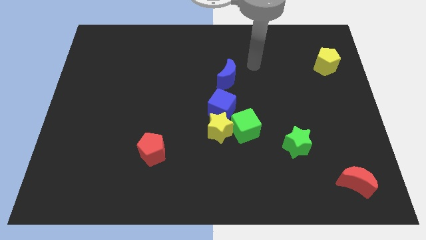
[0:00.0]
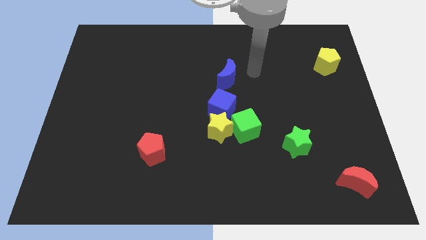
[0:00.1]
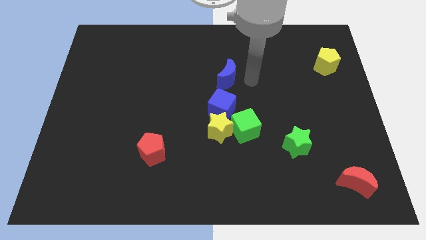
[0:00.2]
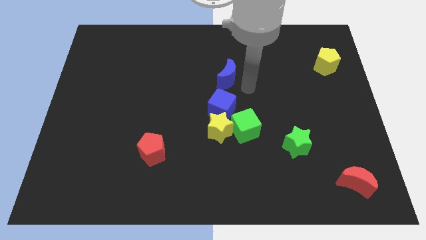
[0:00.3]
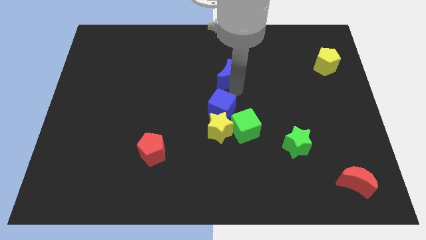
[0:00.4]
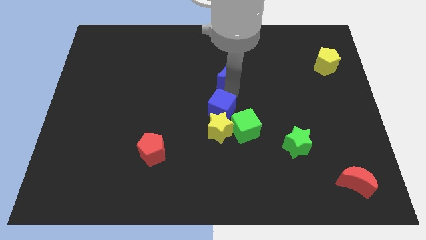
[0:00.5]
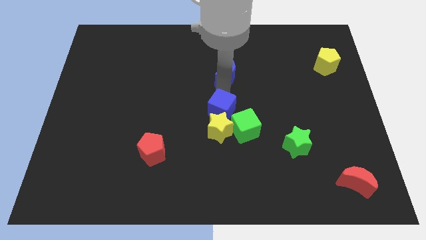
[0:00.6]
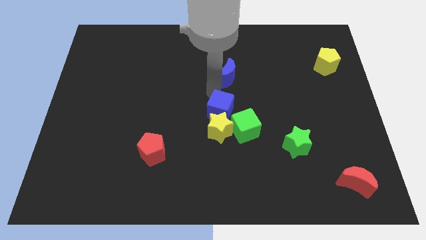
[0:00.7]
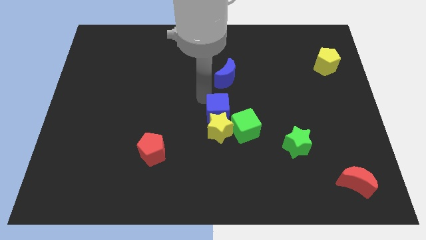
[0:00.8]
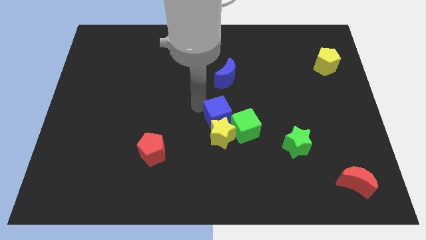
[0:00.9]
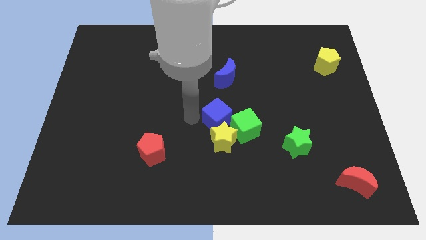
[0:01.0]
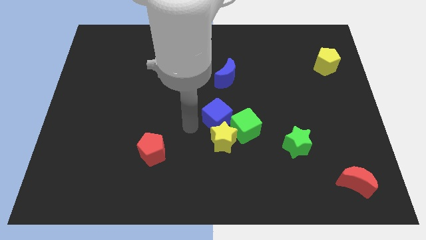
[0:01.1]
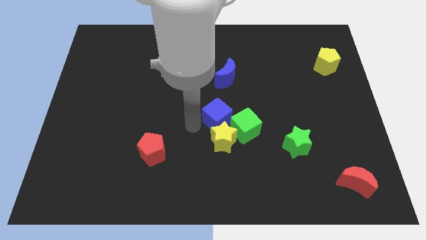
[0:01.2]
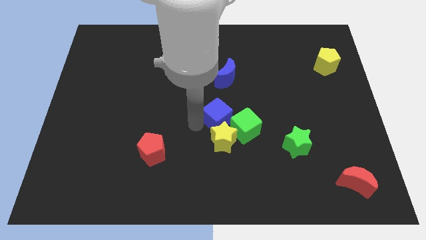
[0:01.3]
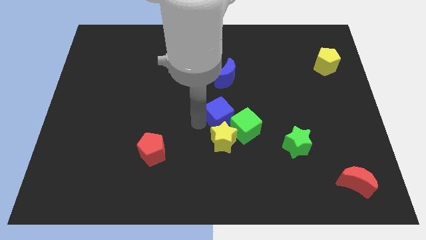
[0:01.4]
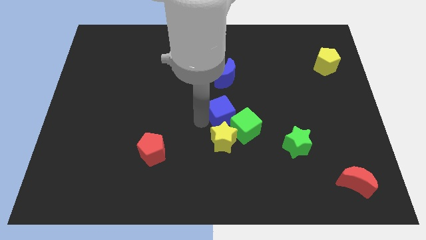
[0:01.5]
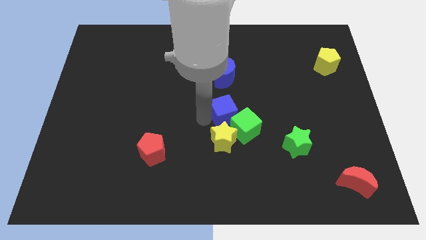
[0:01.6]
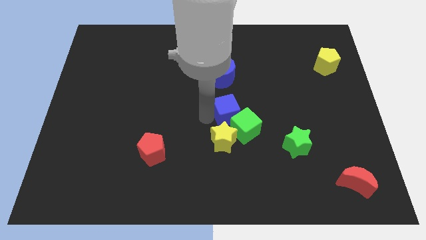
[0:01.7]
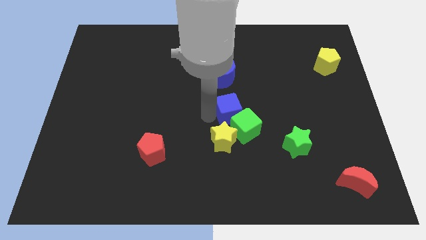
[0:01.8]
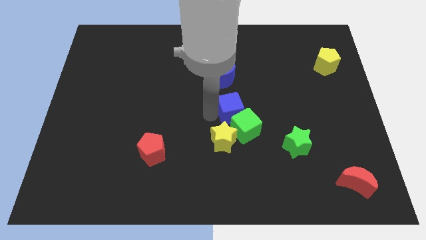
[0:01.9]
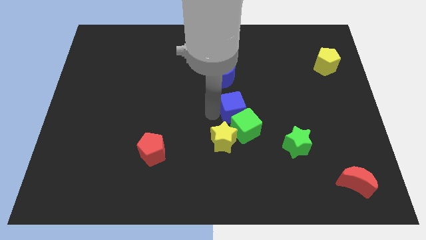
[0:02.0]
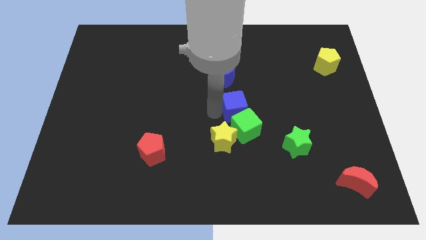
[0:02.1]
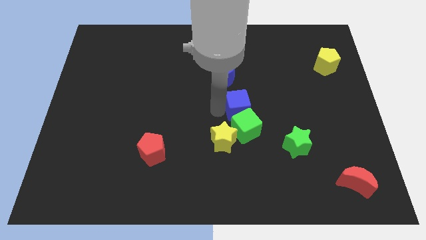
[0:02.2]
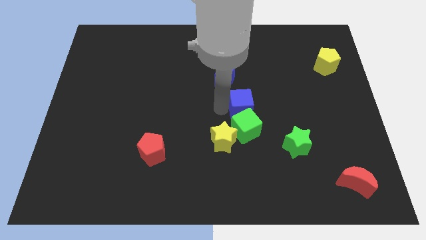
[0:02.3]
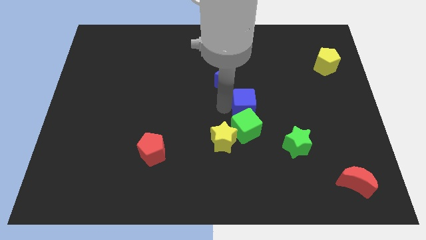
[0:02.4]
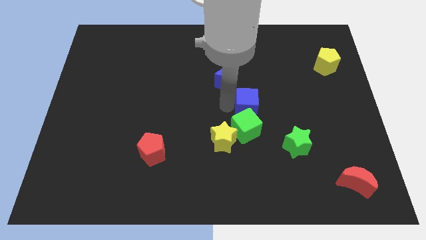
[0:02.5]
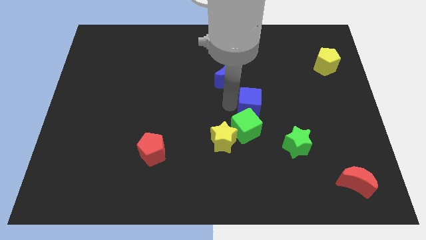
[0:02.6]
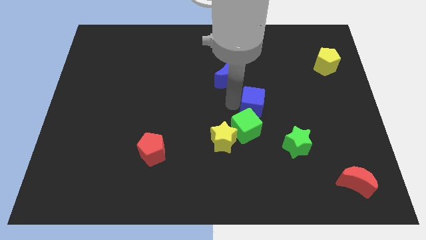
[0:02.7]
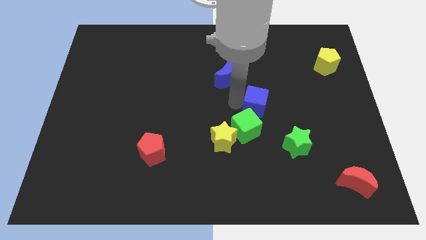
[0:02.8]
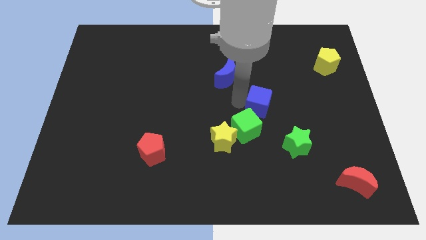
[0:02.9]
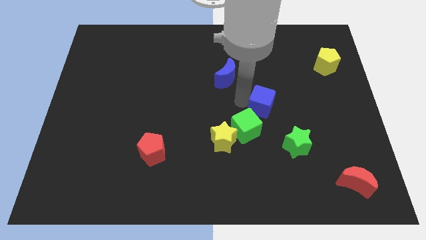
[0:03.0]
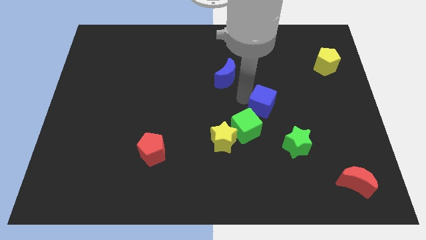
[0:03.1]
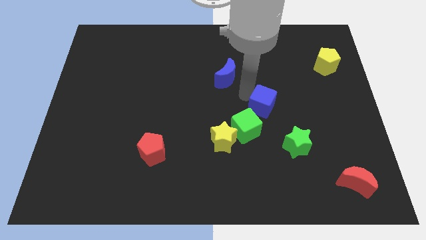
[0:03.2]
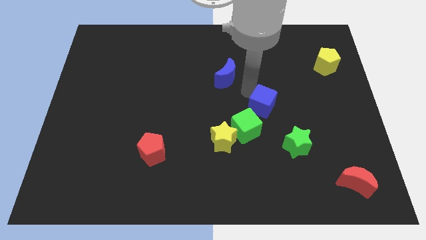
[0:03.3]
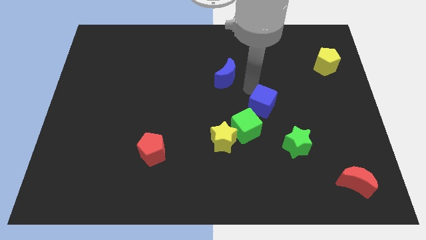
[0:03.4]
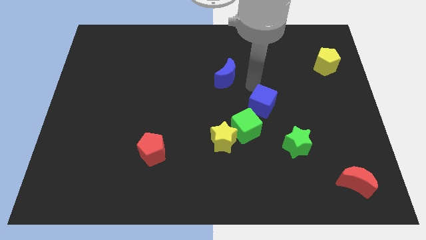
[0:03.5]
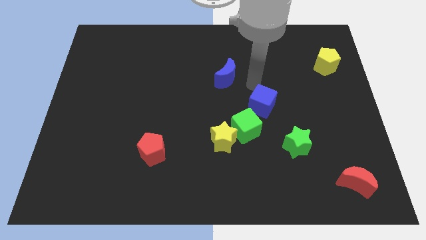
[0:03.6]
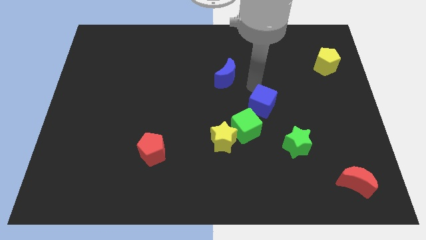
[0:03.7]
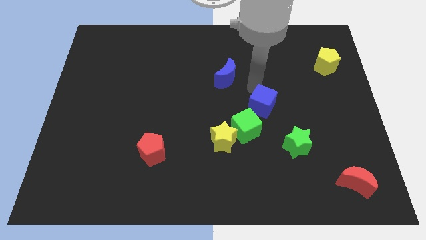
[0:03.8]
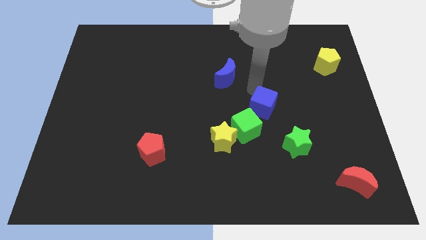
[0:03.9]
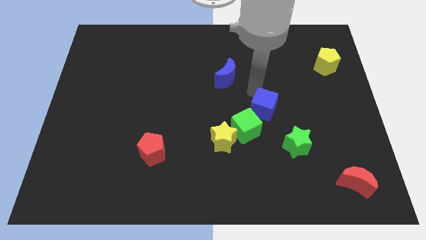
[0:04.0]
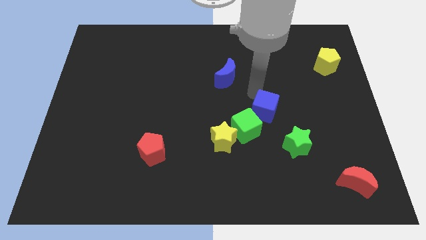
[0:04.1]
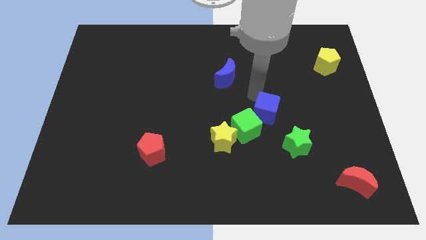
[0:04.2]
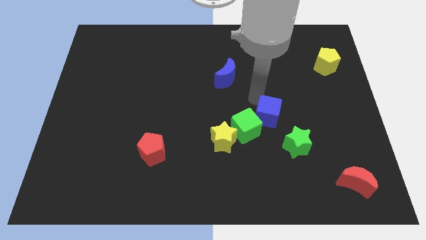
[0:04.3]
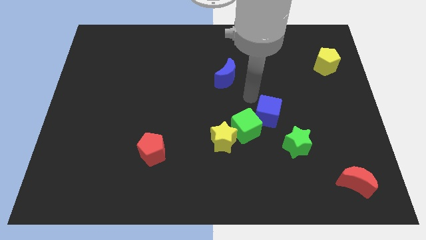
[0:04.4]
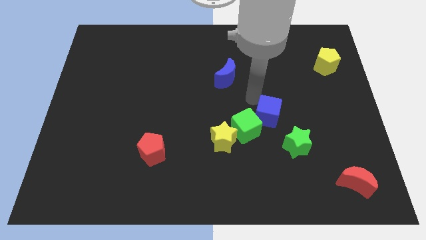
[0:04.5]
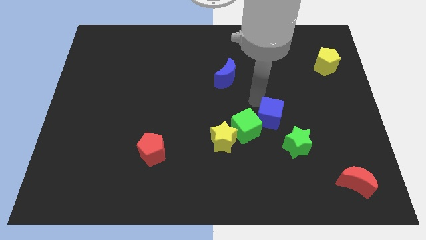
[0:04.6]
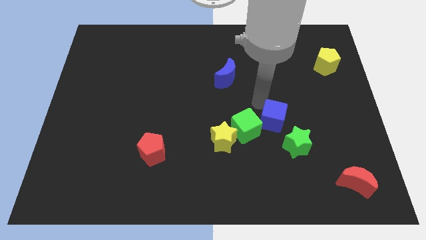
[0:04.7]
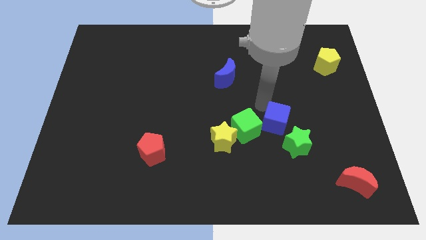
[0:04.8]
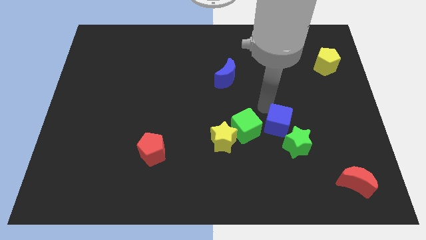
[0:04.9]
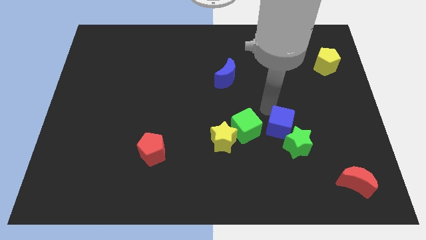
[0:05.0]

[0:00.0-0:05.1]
put the blue cube next to the green star

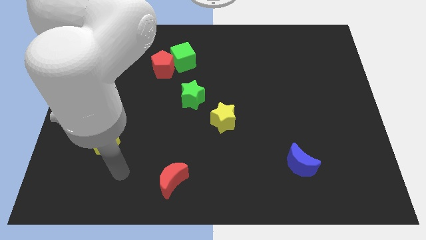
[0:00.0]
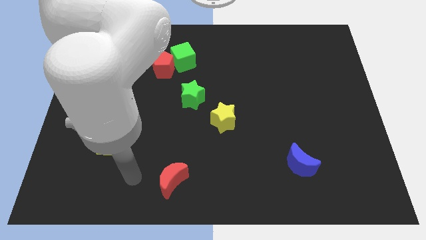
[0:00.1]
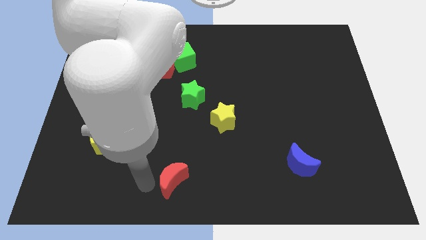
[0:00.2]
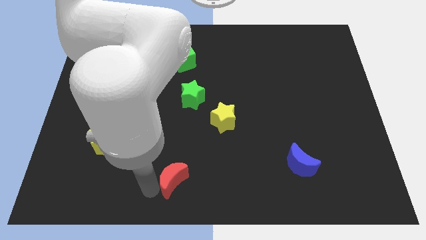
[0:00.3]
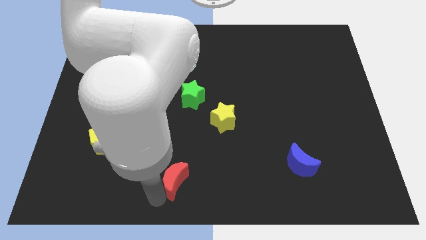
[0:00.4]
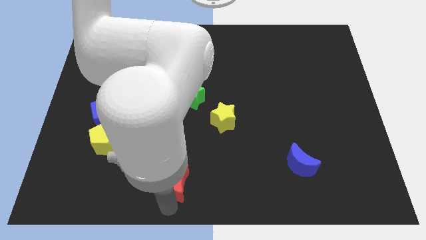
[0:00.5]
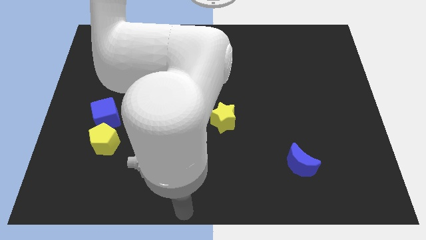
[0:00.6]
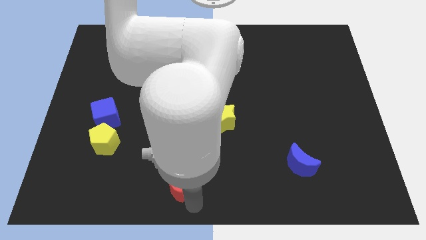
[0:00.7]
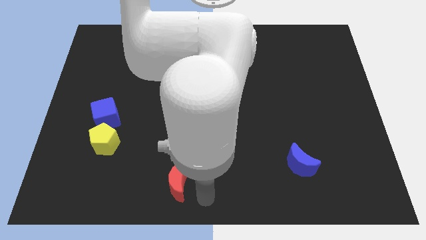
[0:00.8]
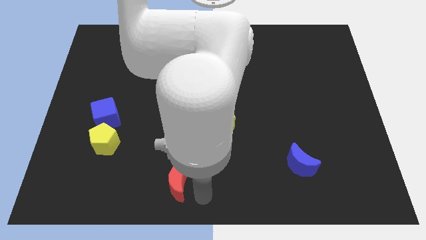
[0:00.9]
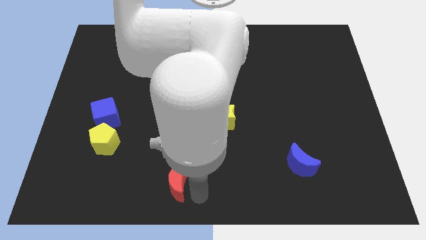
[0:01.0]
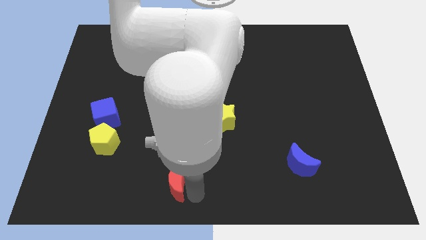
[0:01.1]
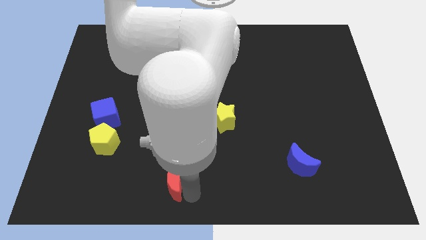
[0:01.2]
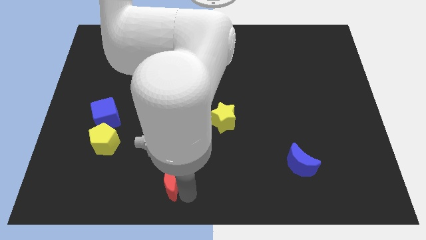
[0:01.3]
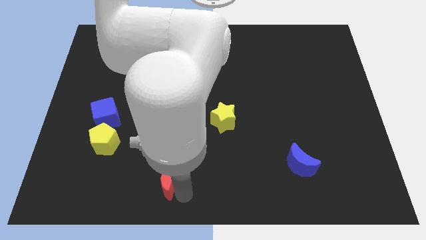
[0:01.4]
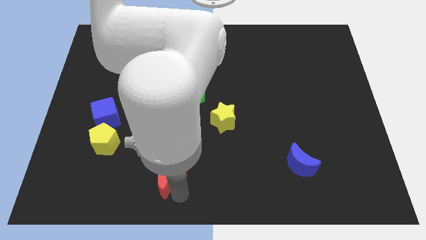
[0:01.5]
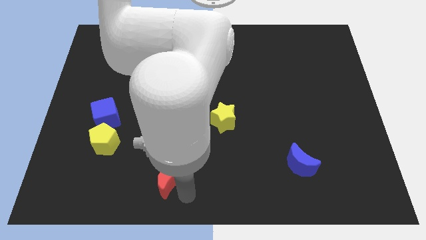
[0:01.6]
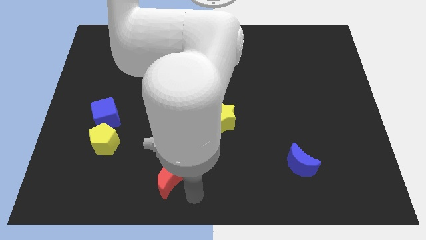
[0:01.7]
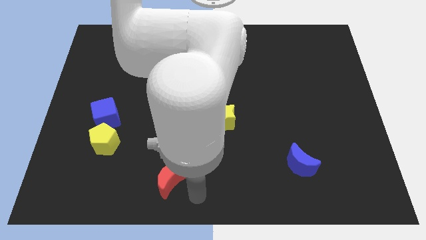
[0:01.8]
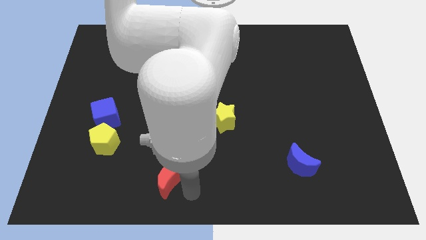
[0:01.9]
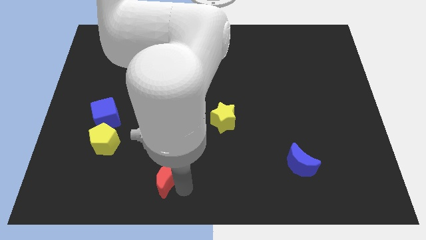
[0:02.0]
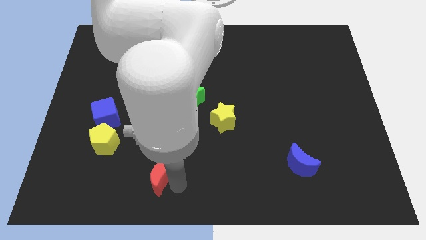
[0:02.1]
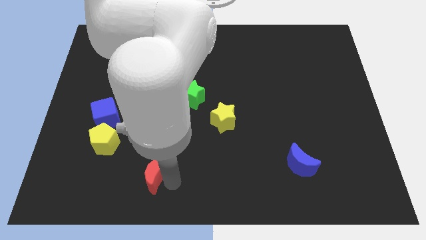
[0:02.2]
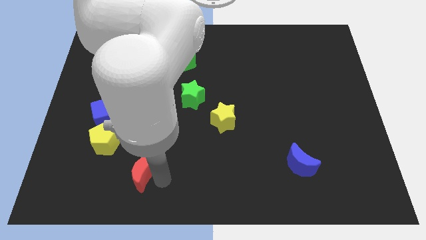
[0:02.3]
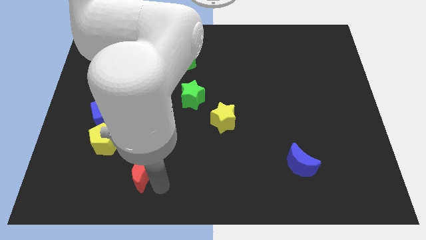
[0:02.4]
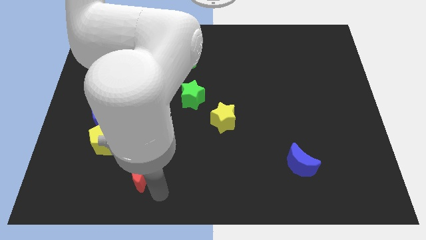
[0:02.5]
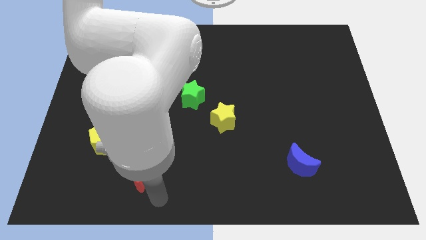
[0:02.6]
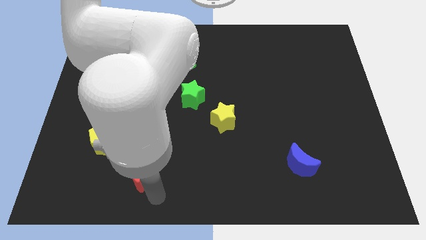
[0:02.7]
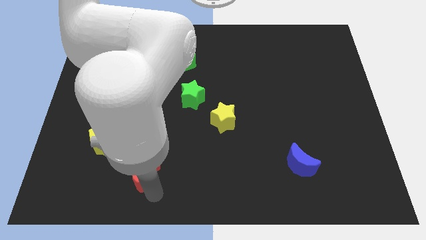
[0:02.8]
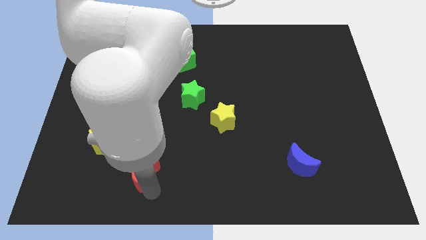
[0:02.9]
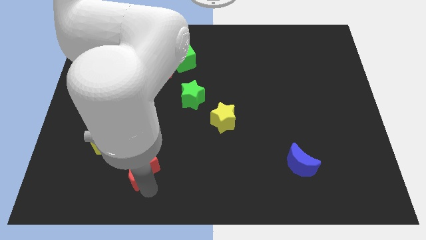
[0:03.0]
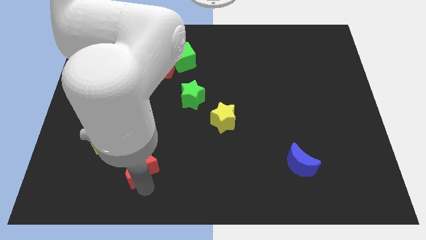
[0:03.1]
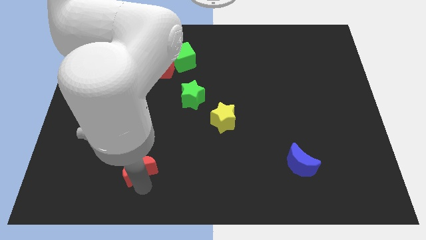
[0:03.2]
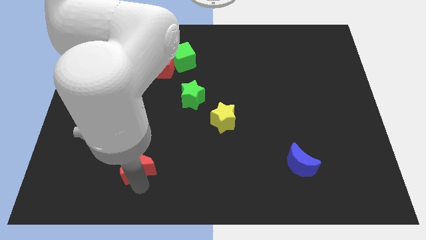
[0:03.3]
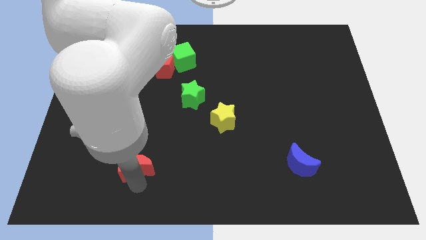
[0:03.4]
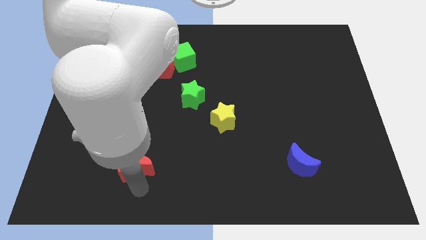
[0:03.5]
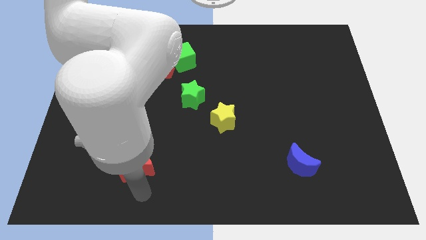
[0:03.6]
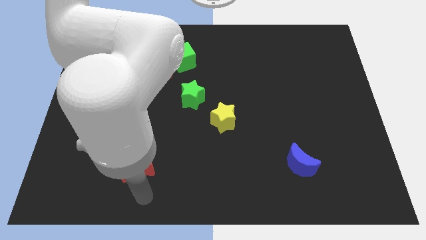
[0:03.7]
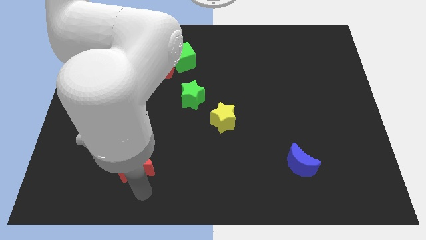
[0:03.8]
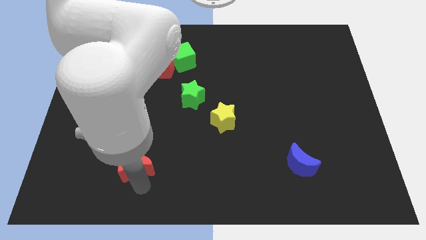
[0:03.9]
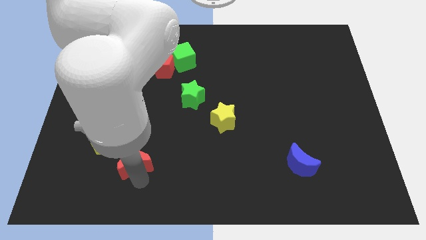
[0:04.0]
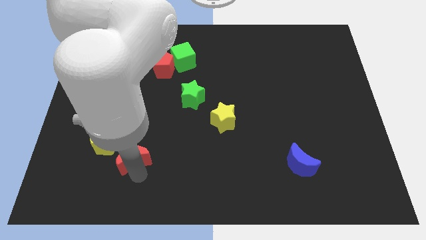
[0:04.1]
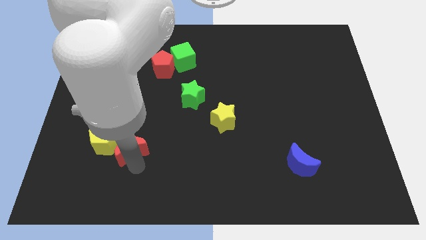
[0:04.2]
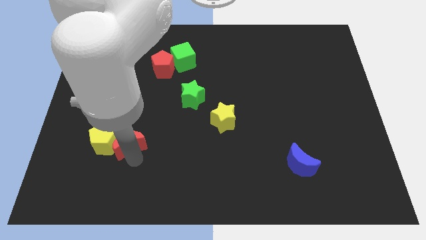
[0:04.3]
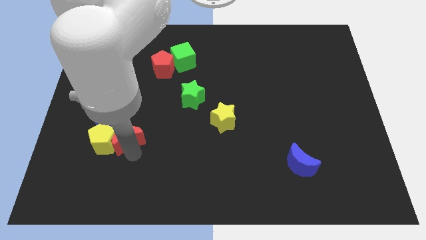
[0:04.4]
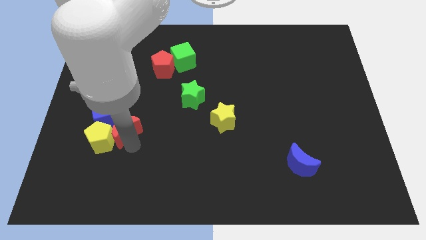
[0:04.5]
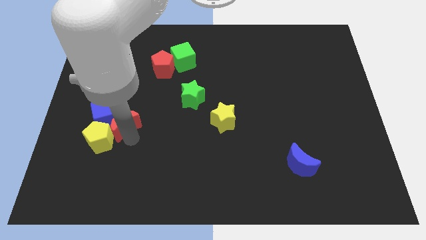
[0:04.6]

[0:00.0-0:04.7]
push the red moon next to the blue cube
